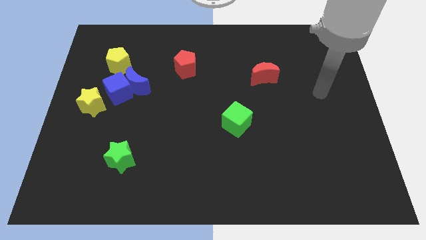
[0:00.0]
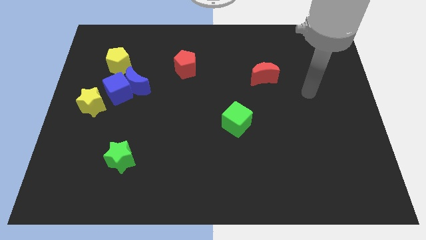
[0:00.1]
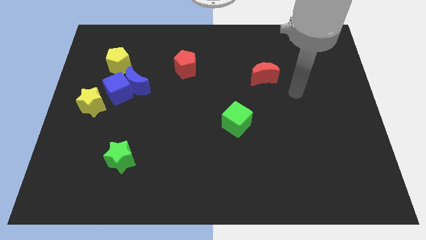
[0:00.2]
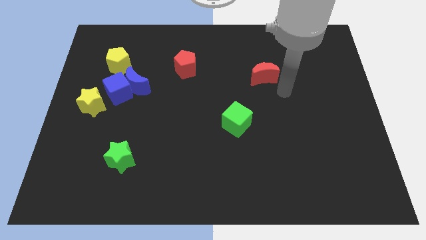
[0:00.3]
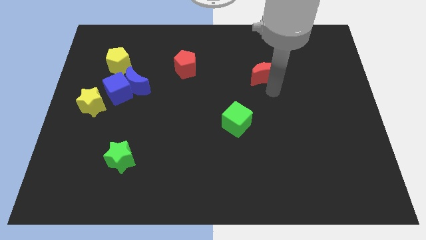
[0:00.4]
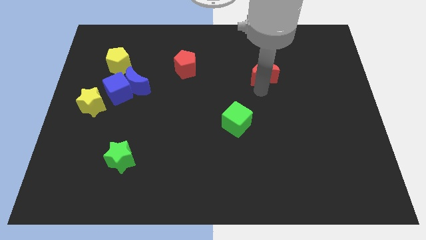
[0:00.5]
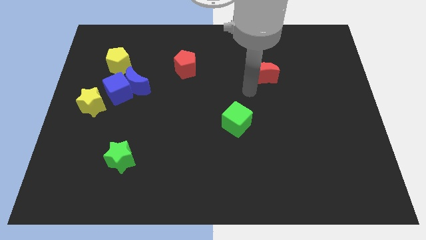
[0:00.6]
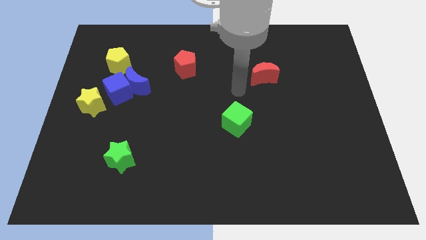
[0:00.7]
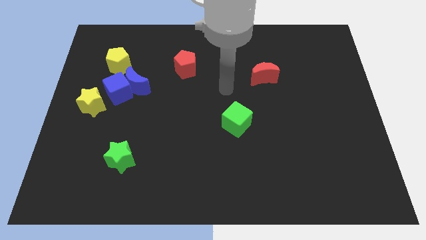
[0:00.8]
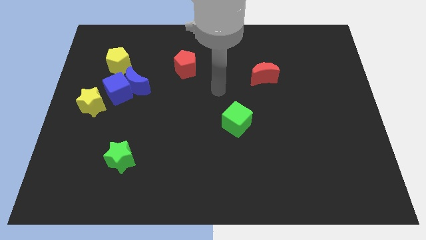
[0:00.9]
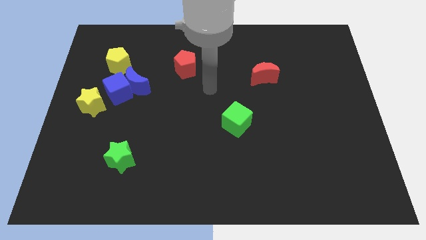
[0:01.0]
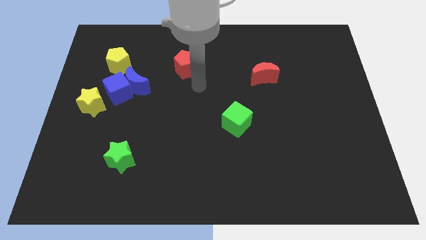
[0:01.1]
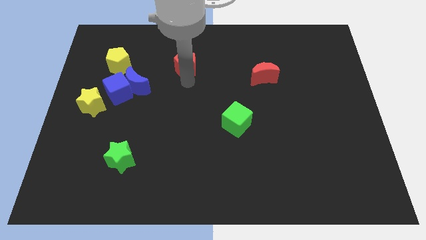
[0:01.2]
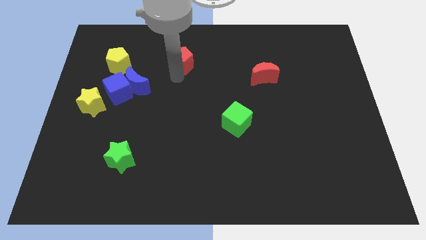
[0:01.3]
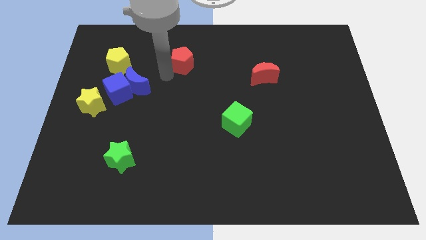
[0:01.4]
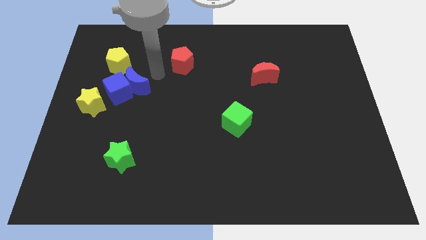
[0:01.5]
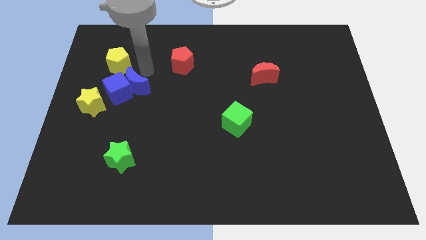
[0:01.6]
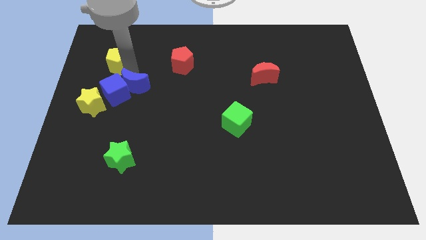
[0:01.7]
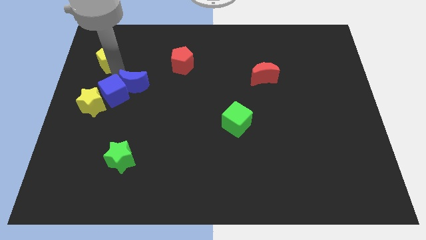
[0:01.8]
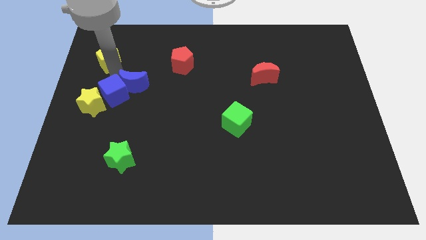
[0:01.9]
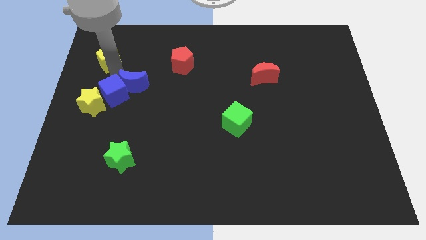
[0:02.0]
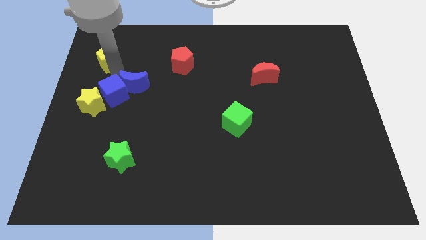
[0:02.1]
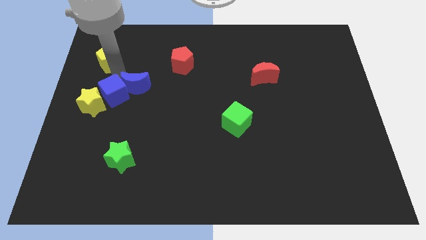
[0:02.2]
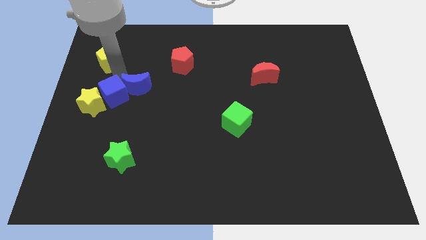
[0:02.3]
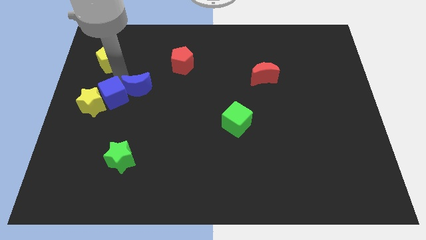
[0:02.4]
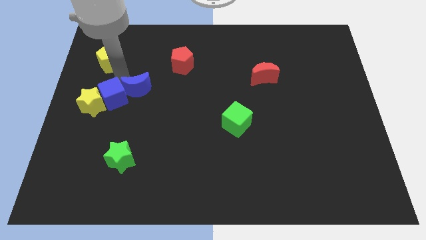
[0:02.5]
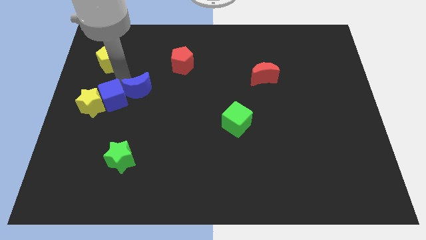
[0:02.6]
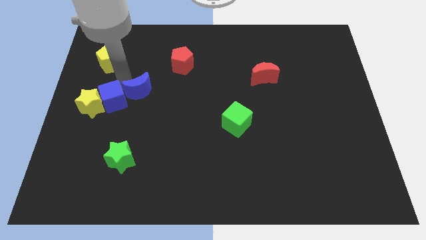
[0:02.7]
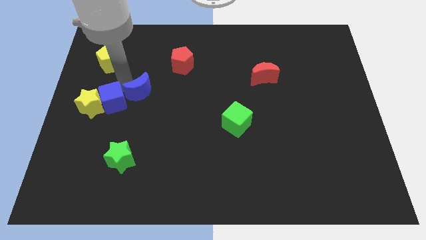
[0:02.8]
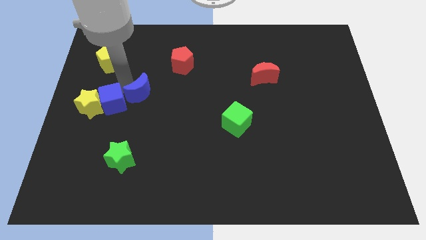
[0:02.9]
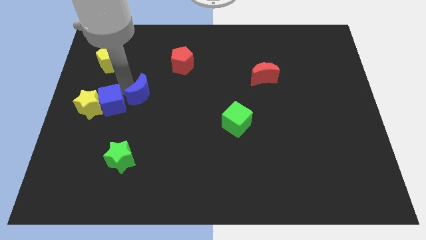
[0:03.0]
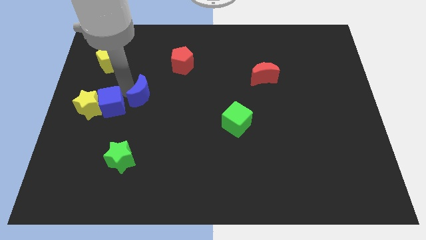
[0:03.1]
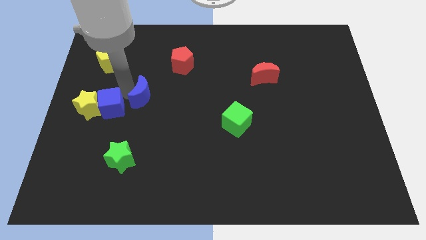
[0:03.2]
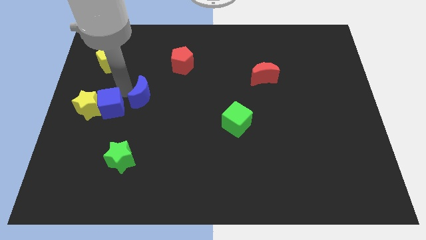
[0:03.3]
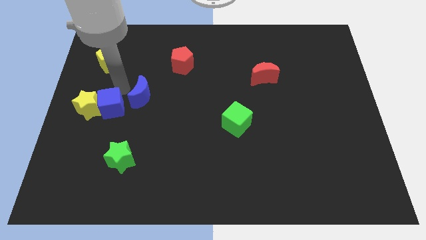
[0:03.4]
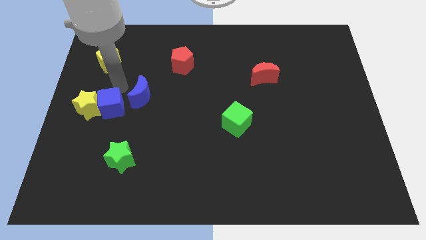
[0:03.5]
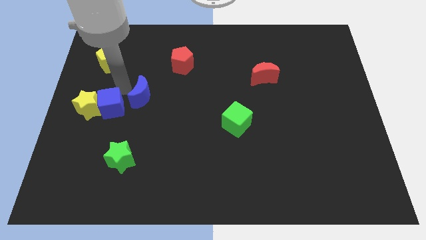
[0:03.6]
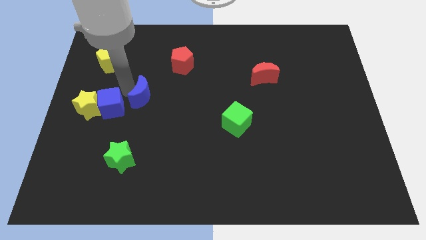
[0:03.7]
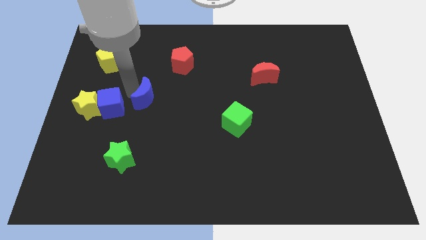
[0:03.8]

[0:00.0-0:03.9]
separate the blue moon from the blue cube and yellow pentagon

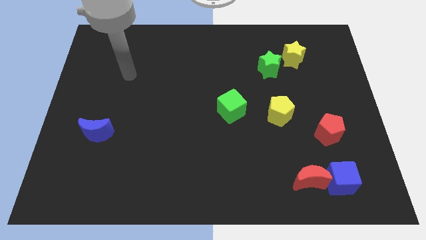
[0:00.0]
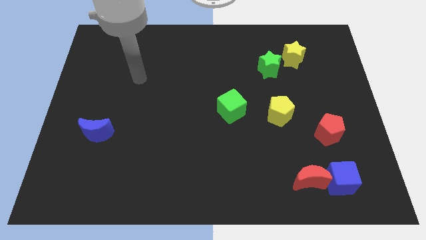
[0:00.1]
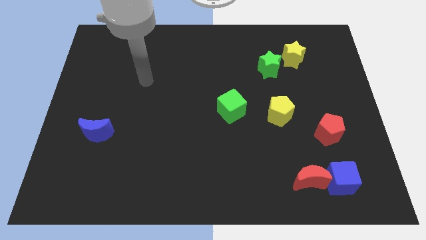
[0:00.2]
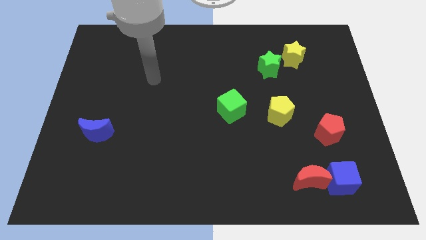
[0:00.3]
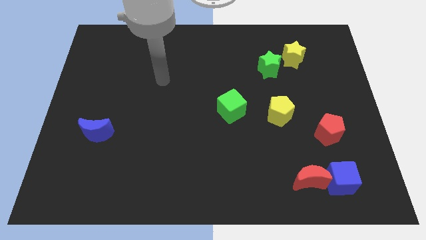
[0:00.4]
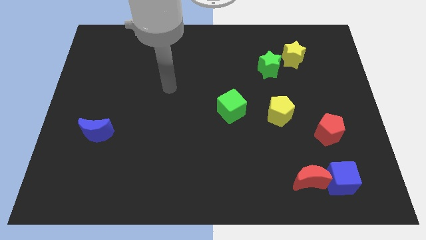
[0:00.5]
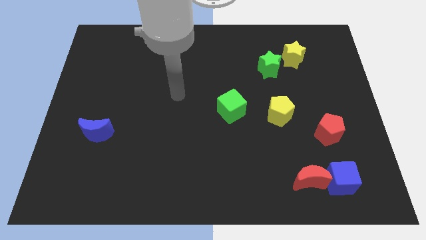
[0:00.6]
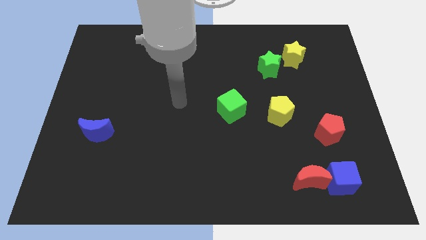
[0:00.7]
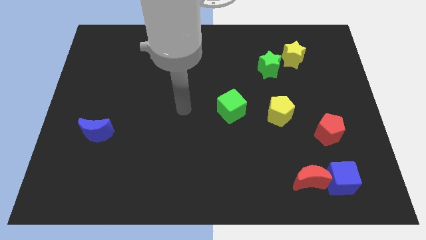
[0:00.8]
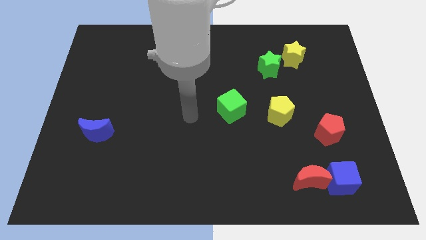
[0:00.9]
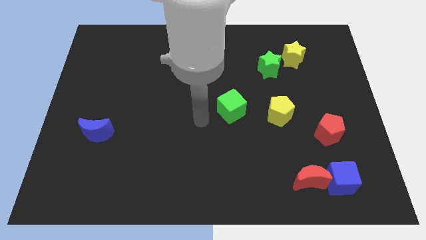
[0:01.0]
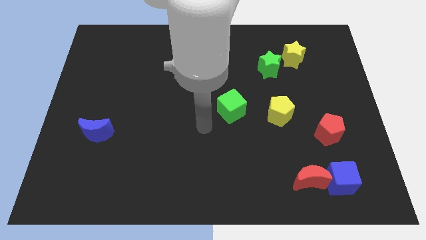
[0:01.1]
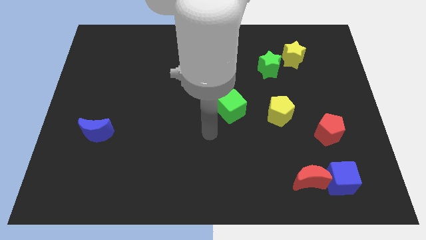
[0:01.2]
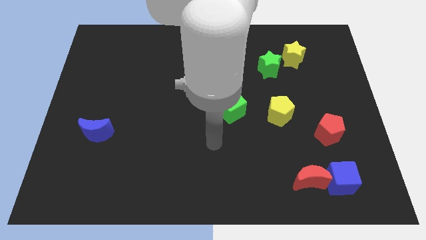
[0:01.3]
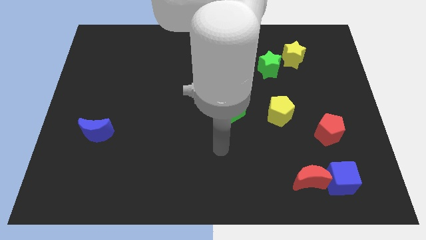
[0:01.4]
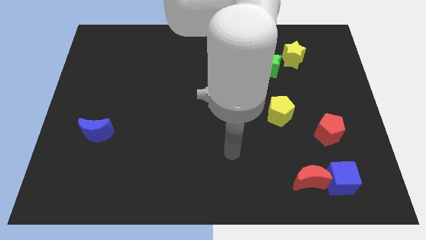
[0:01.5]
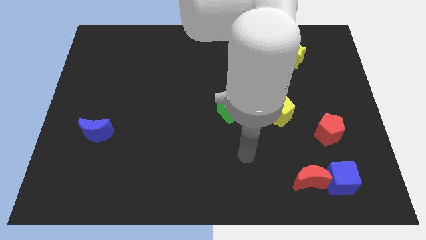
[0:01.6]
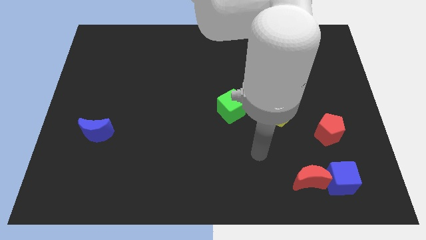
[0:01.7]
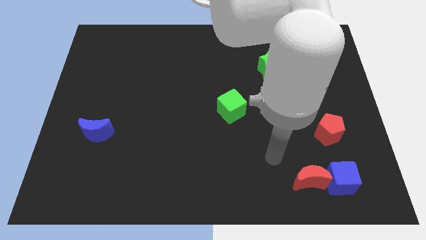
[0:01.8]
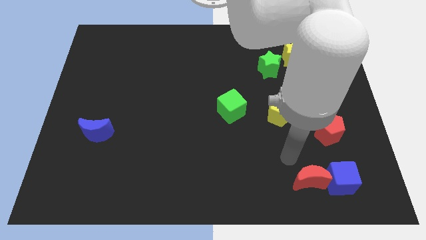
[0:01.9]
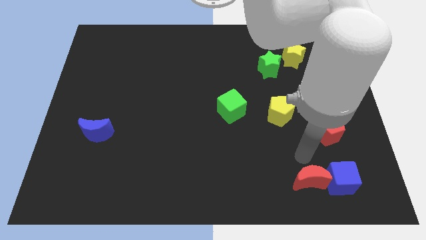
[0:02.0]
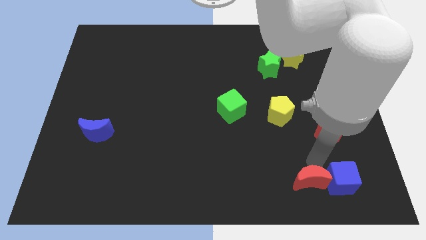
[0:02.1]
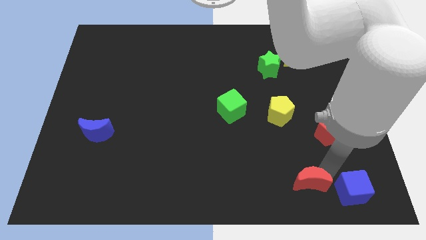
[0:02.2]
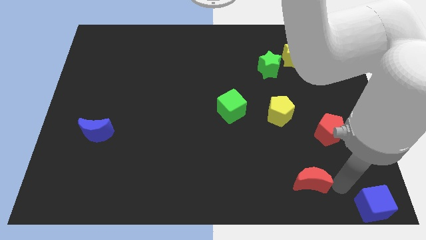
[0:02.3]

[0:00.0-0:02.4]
move the red moon away from the blue cube

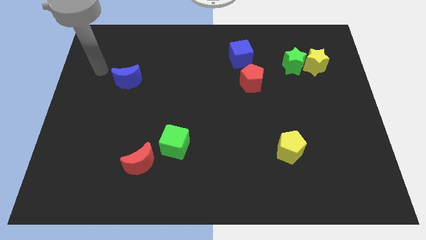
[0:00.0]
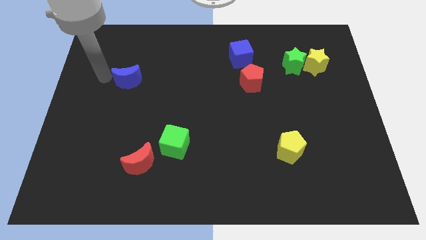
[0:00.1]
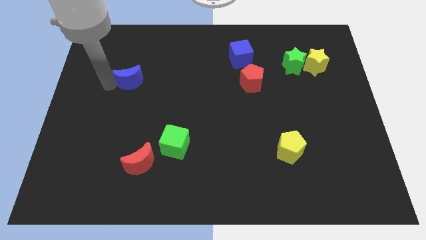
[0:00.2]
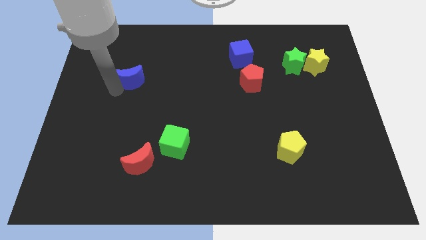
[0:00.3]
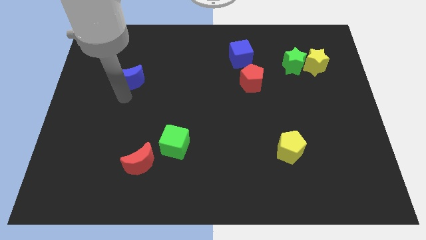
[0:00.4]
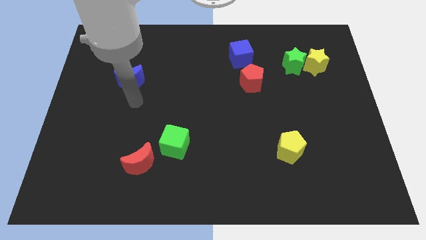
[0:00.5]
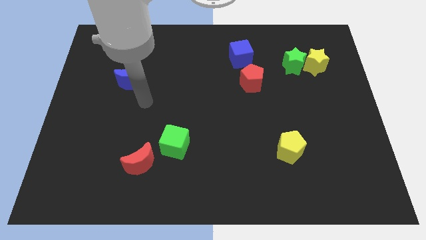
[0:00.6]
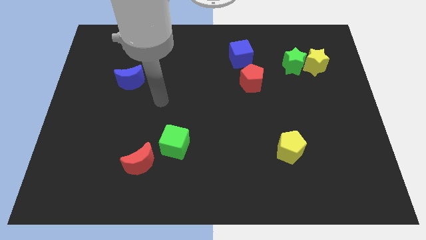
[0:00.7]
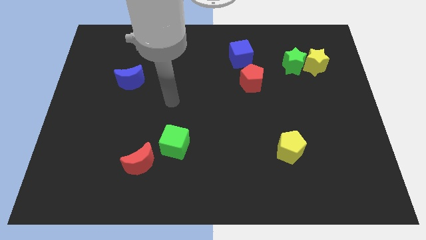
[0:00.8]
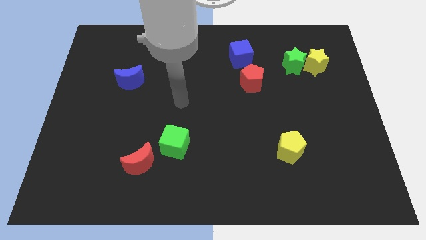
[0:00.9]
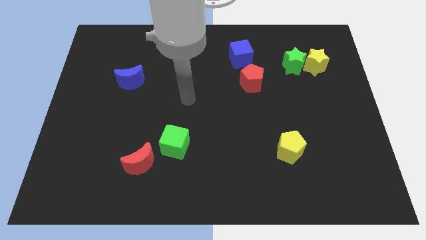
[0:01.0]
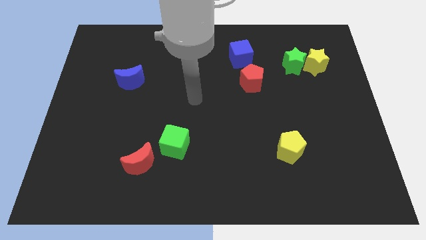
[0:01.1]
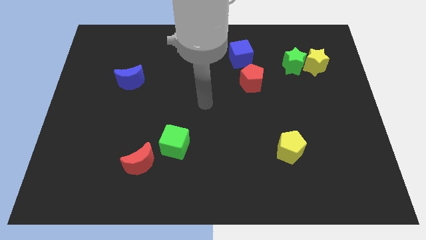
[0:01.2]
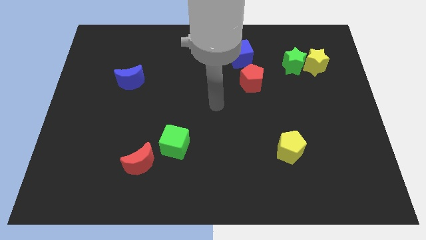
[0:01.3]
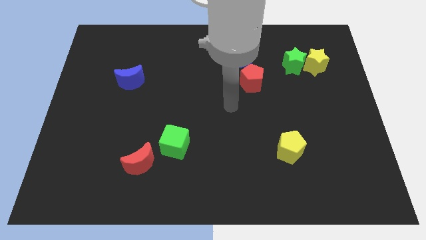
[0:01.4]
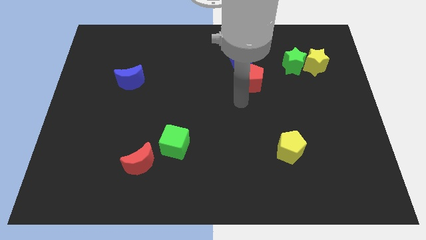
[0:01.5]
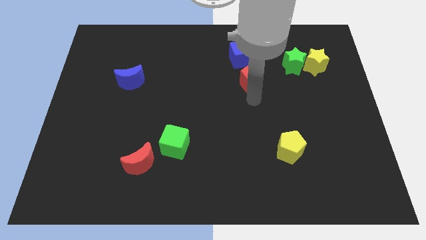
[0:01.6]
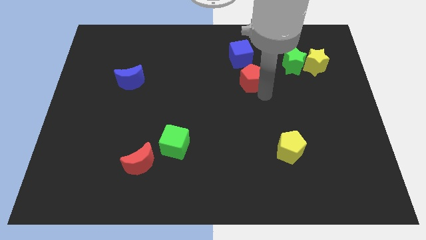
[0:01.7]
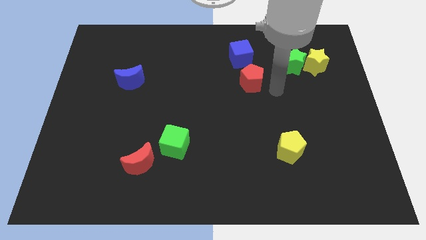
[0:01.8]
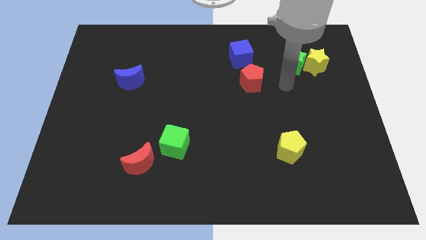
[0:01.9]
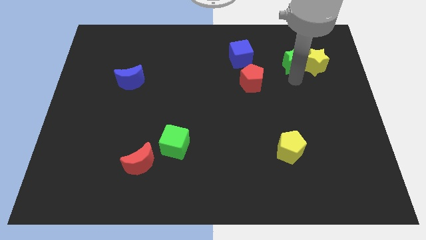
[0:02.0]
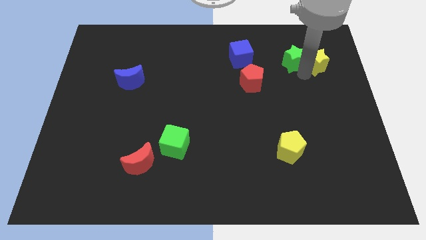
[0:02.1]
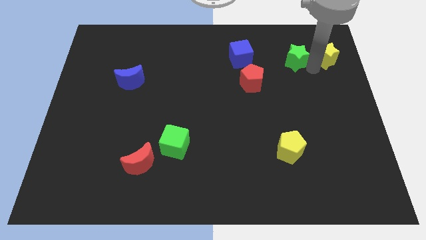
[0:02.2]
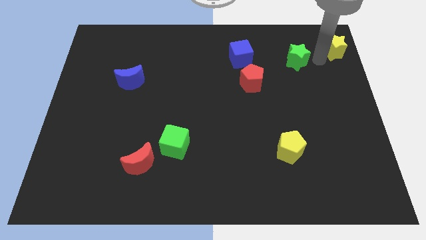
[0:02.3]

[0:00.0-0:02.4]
pull the green star apart from the yellow star

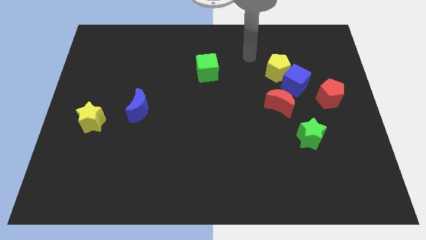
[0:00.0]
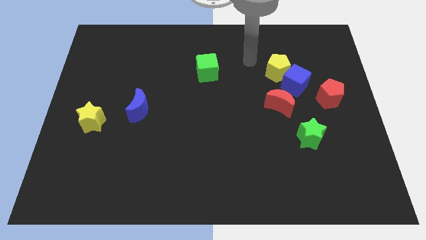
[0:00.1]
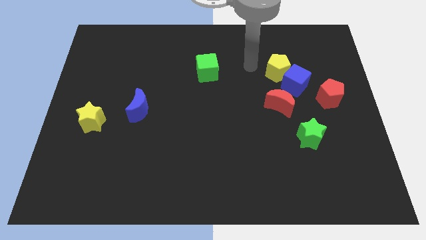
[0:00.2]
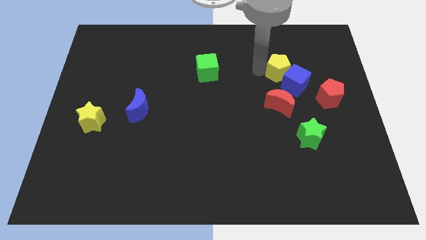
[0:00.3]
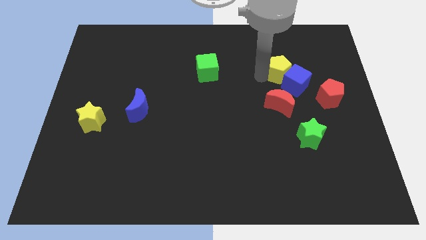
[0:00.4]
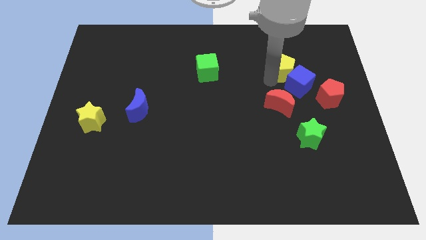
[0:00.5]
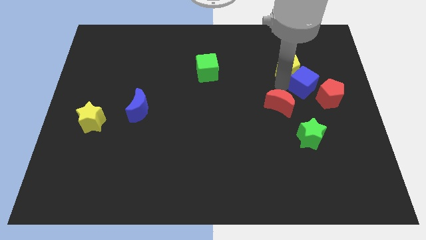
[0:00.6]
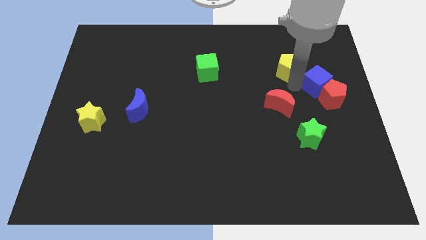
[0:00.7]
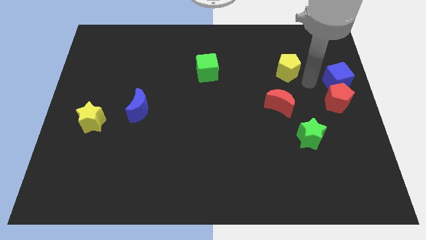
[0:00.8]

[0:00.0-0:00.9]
pull the yellow pentagon apart from the blue cube

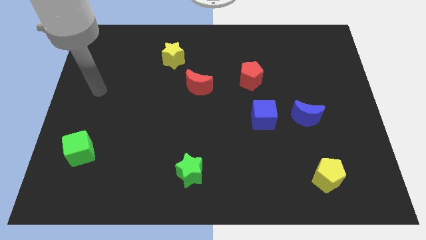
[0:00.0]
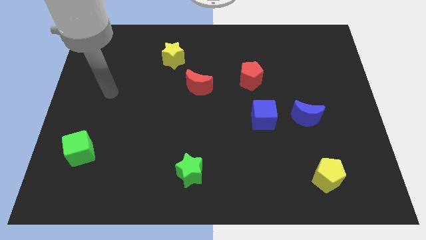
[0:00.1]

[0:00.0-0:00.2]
move the blue moon away from the blue cube
